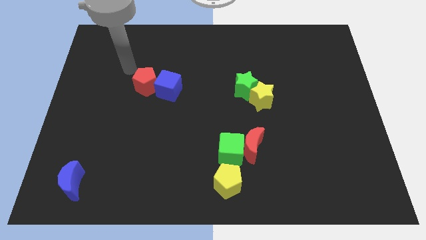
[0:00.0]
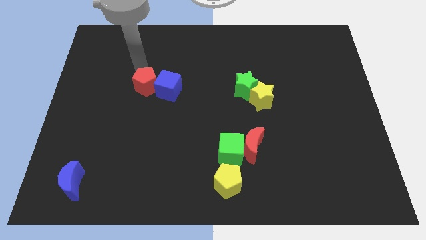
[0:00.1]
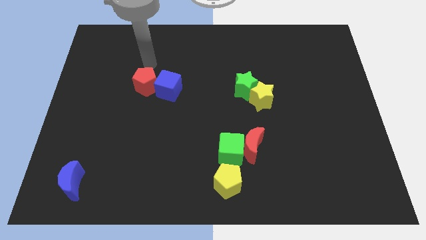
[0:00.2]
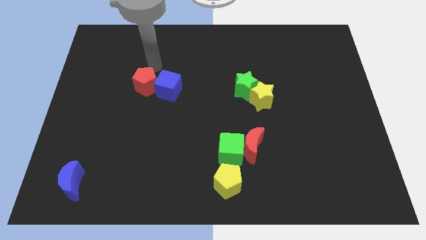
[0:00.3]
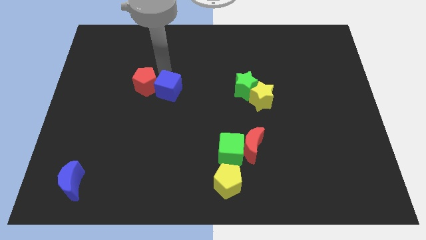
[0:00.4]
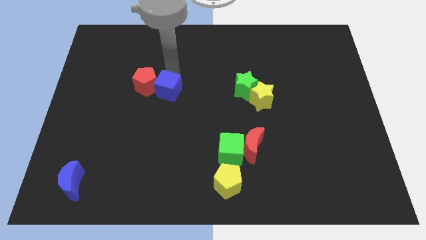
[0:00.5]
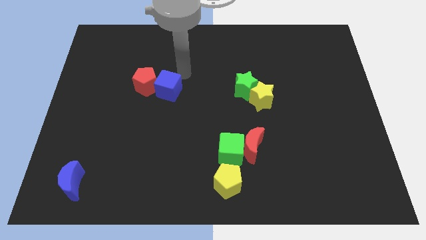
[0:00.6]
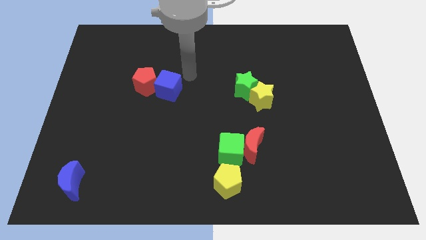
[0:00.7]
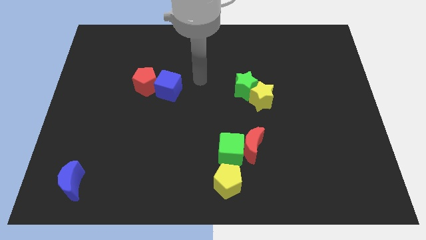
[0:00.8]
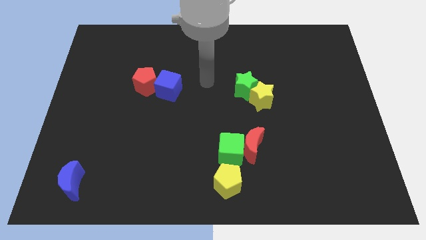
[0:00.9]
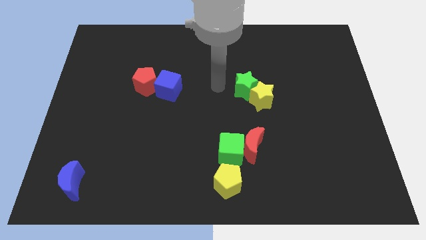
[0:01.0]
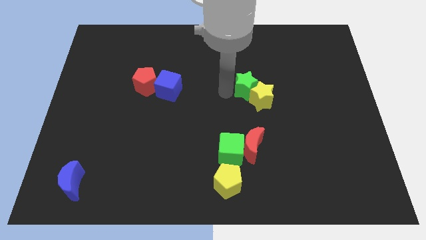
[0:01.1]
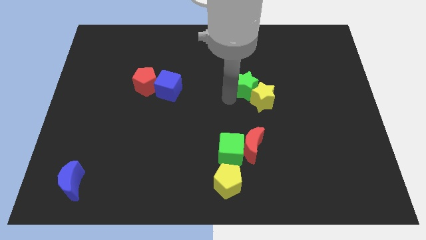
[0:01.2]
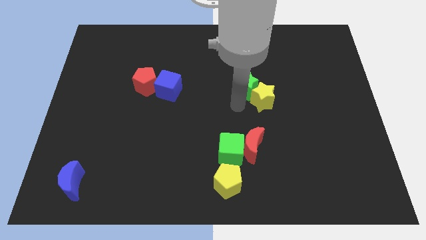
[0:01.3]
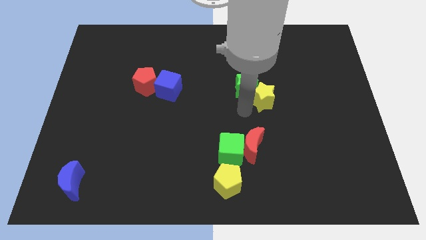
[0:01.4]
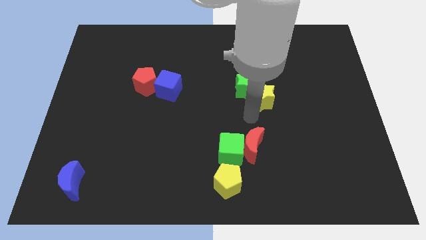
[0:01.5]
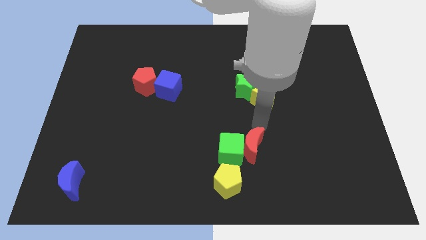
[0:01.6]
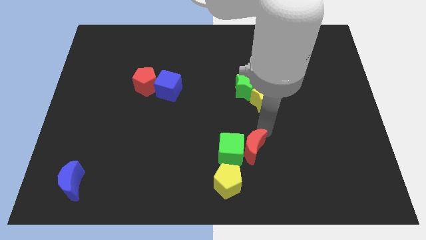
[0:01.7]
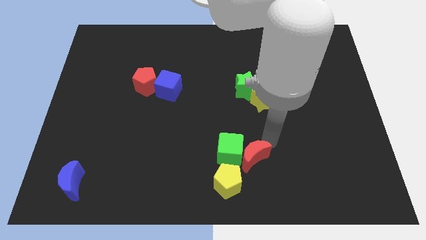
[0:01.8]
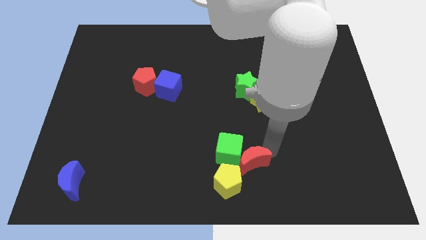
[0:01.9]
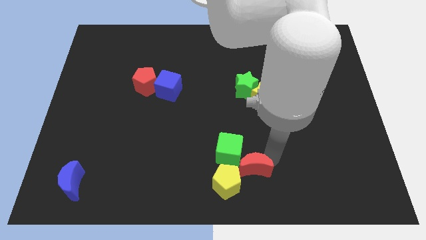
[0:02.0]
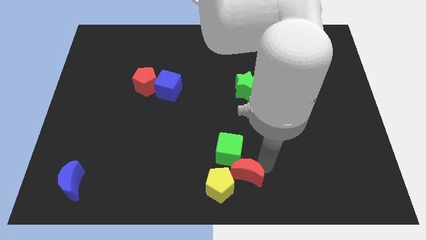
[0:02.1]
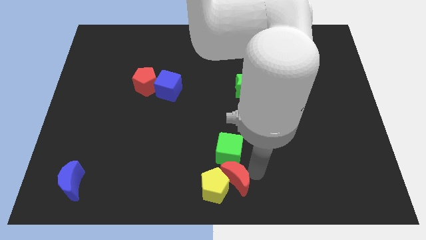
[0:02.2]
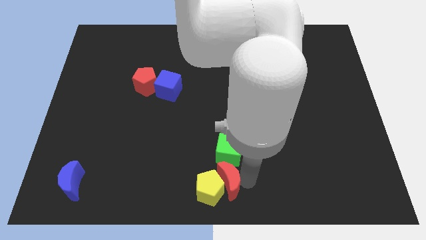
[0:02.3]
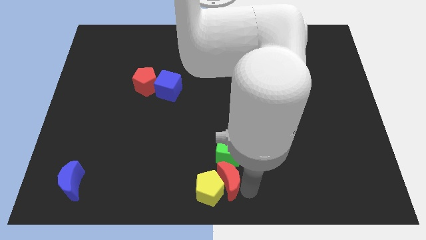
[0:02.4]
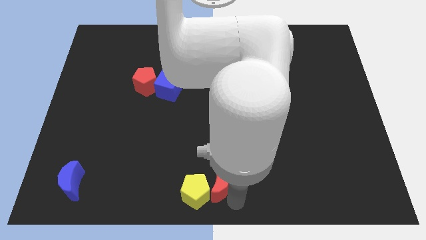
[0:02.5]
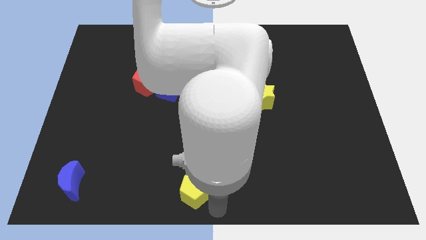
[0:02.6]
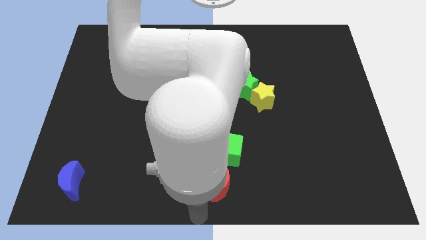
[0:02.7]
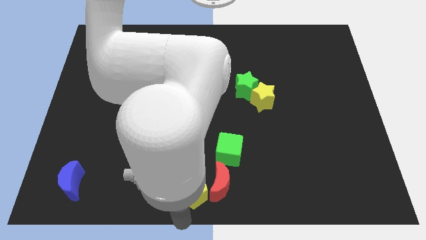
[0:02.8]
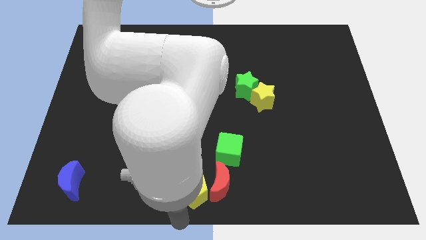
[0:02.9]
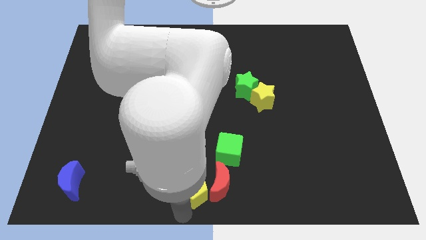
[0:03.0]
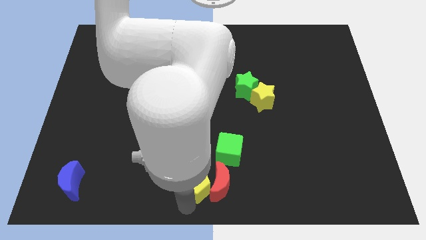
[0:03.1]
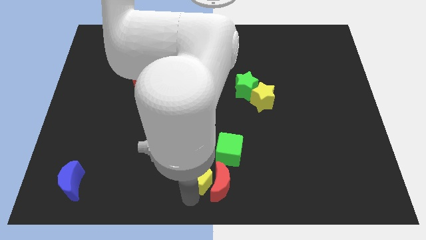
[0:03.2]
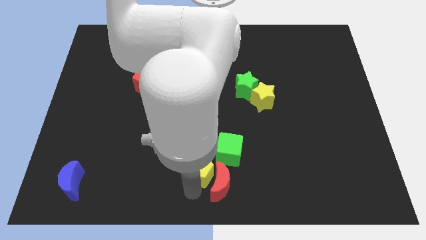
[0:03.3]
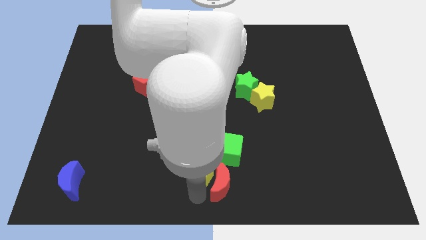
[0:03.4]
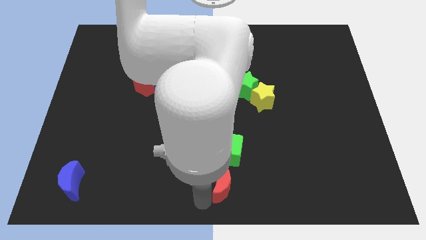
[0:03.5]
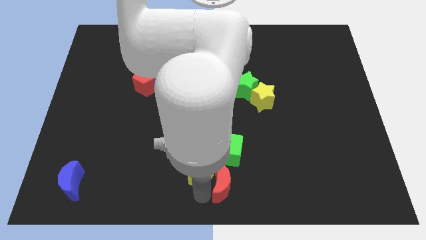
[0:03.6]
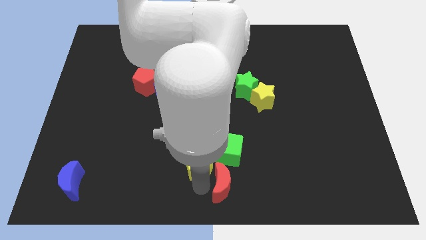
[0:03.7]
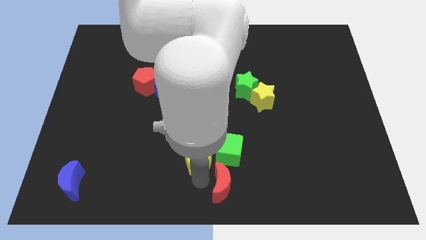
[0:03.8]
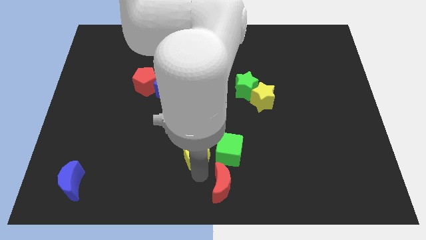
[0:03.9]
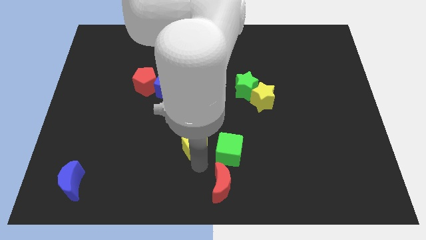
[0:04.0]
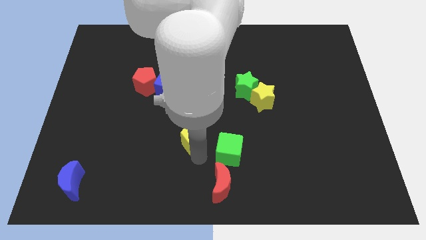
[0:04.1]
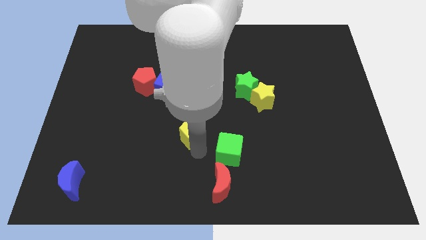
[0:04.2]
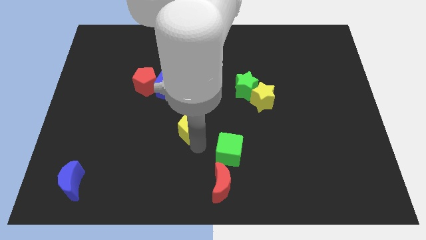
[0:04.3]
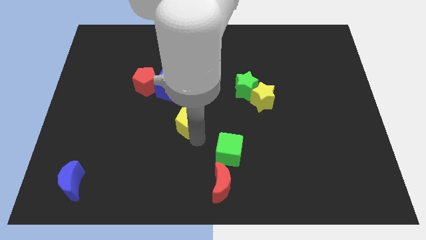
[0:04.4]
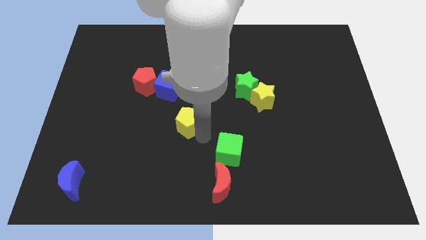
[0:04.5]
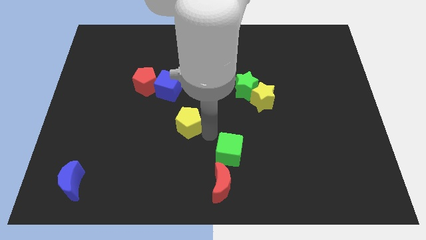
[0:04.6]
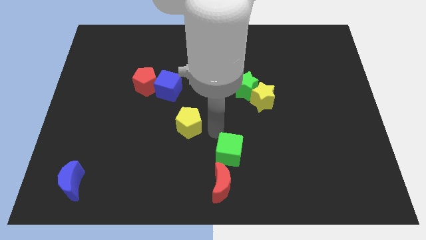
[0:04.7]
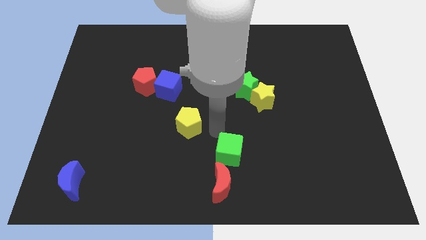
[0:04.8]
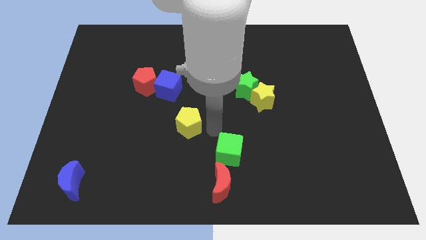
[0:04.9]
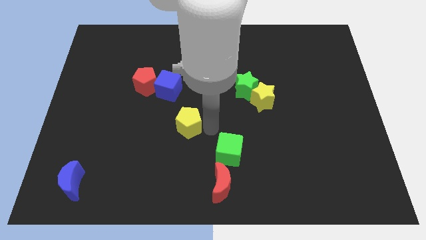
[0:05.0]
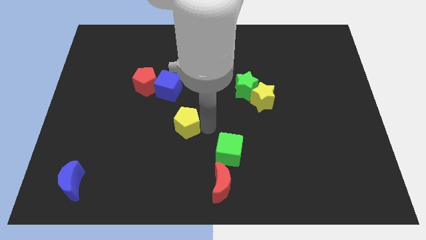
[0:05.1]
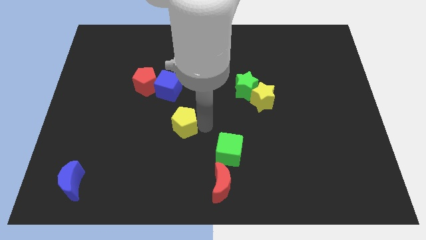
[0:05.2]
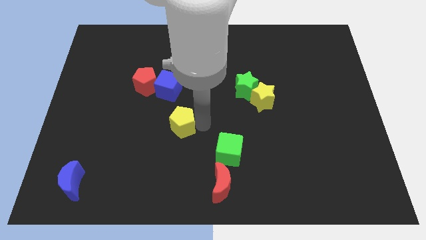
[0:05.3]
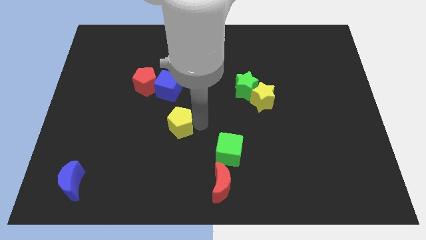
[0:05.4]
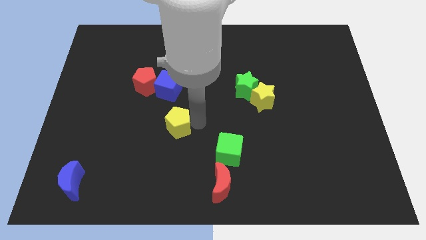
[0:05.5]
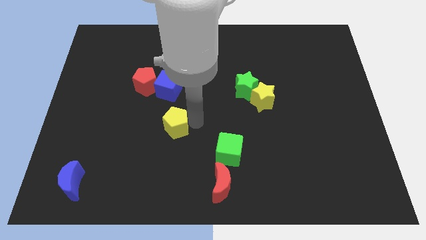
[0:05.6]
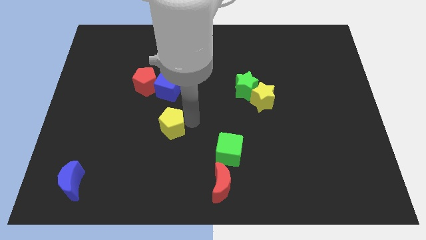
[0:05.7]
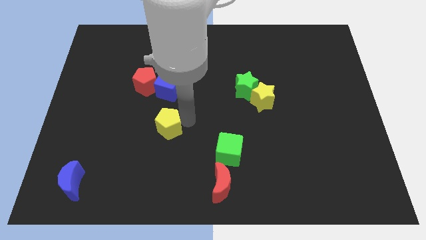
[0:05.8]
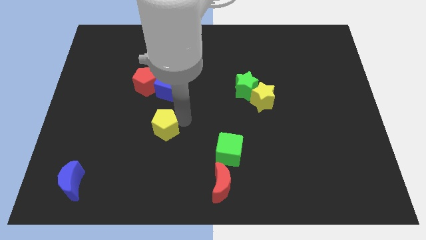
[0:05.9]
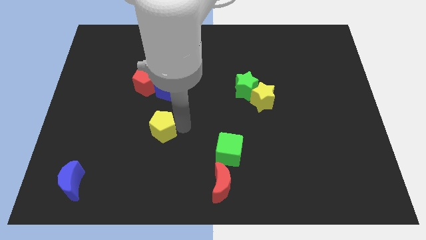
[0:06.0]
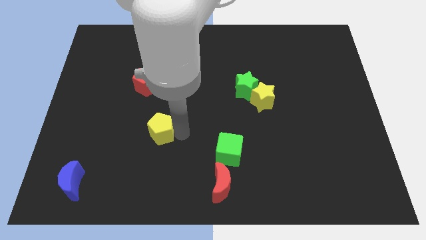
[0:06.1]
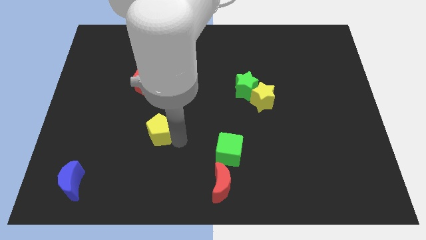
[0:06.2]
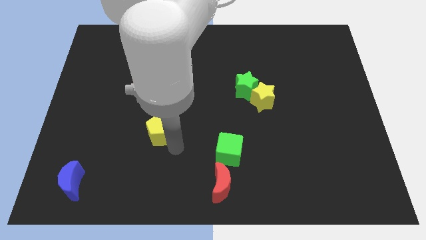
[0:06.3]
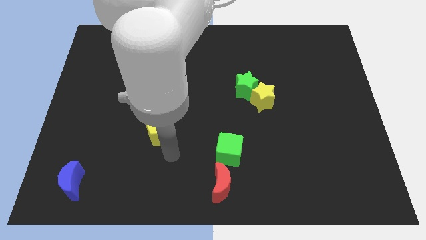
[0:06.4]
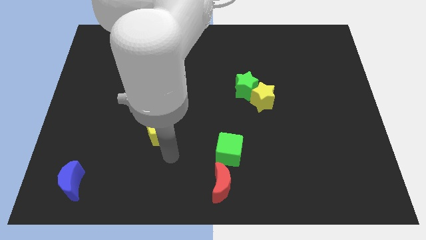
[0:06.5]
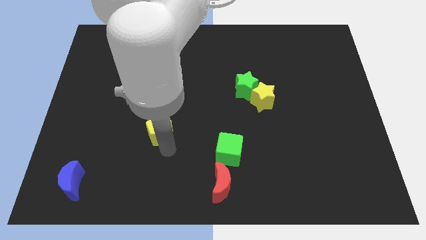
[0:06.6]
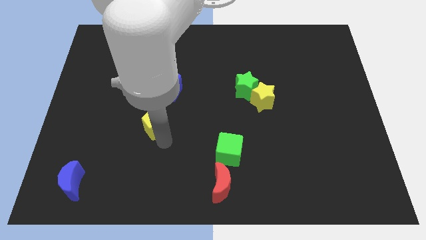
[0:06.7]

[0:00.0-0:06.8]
move the yellow pentagon up and then left

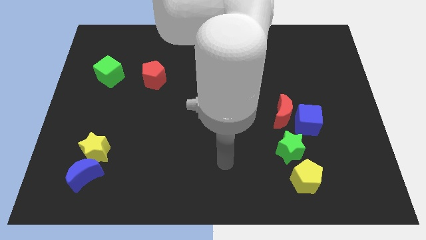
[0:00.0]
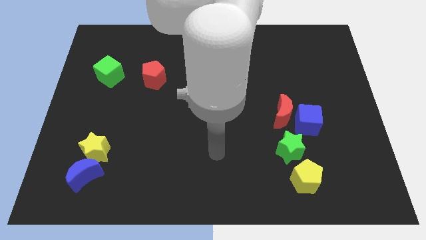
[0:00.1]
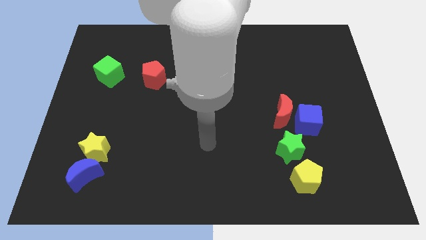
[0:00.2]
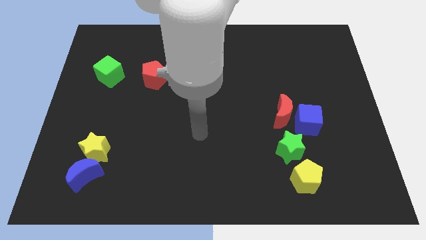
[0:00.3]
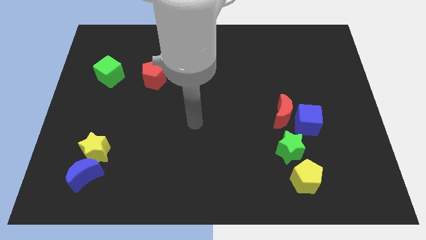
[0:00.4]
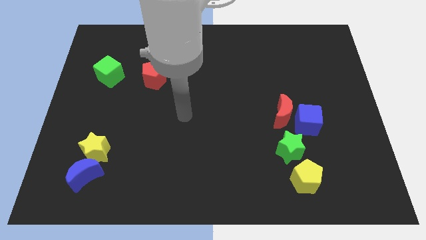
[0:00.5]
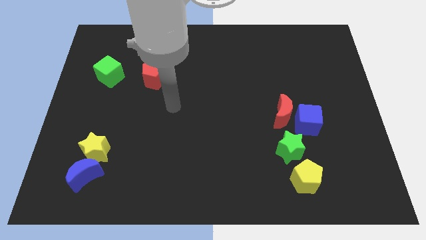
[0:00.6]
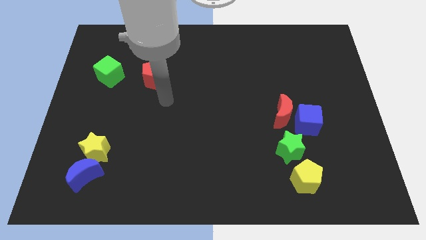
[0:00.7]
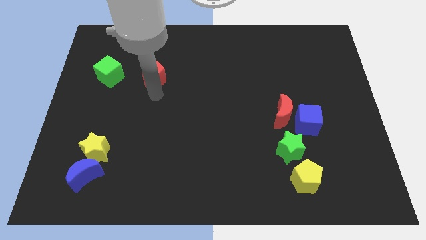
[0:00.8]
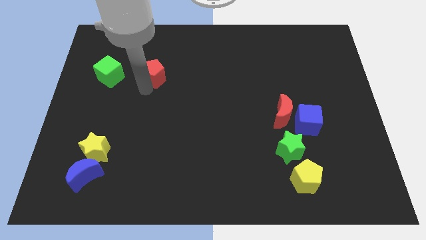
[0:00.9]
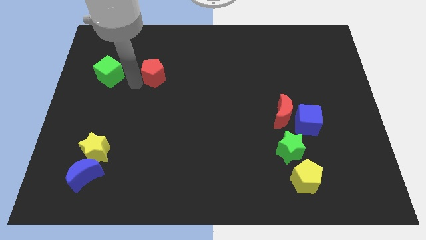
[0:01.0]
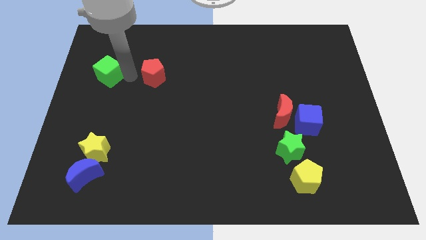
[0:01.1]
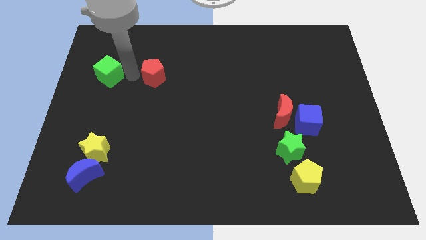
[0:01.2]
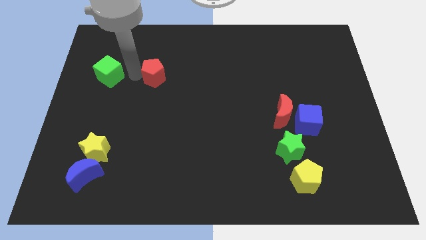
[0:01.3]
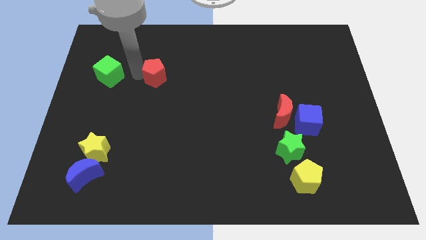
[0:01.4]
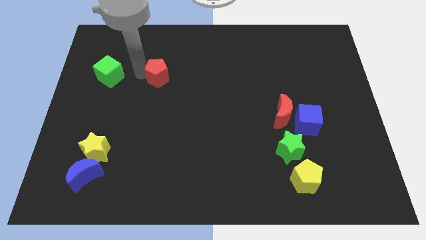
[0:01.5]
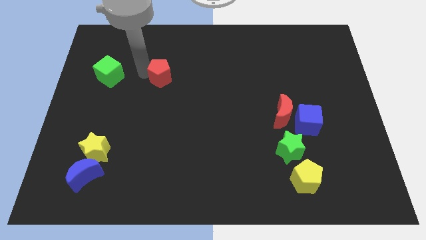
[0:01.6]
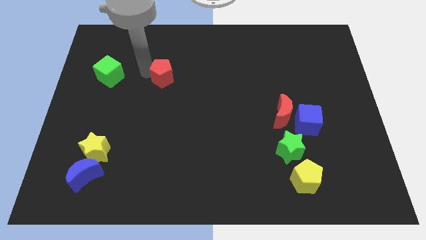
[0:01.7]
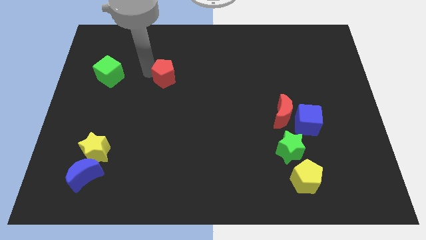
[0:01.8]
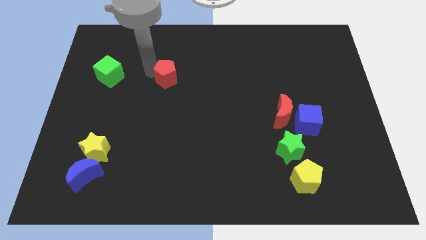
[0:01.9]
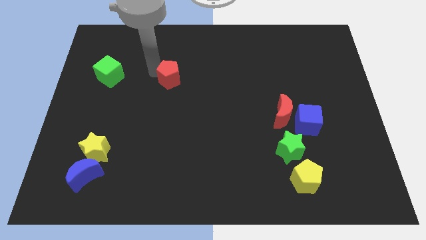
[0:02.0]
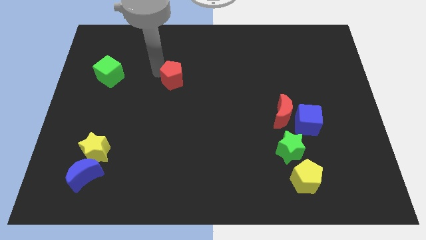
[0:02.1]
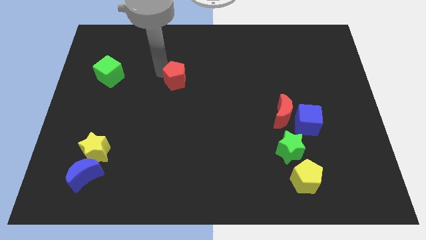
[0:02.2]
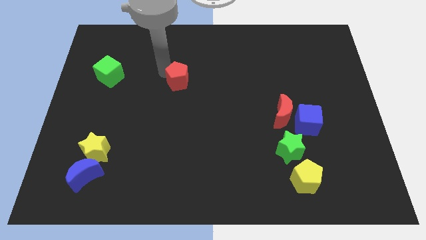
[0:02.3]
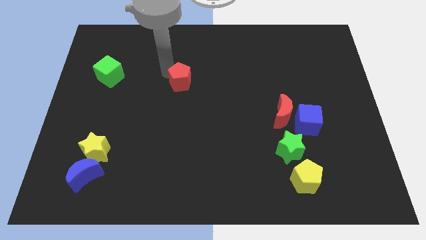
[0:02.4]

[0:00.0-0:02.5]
slide the red pentagon to the right somewhat
